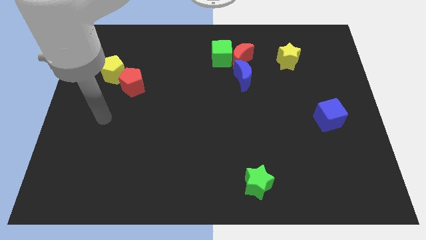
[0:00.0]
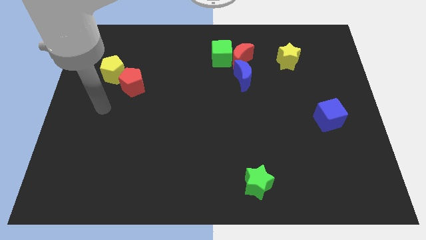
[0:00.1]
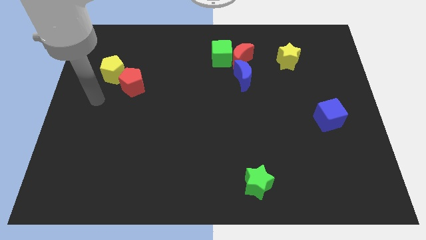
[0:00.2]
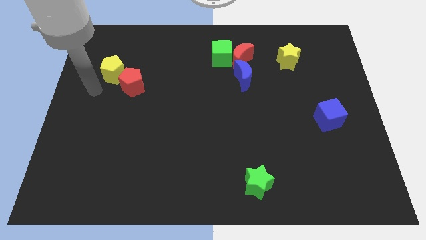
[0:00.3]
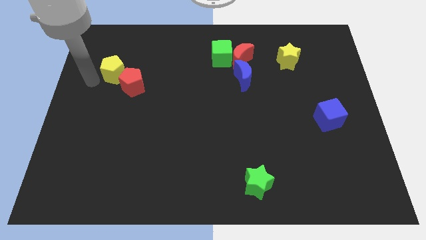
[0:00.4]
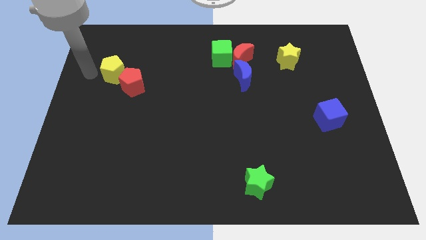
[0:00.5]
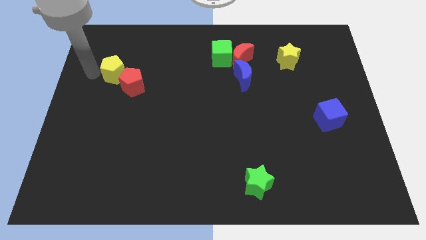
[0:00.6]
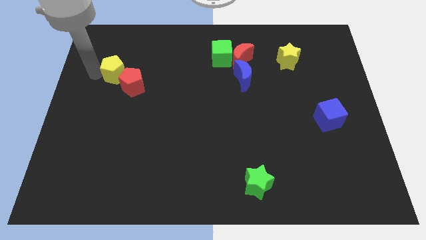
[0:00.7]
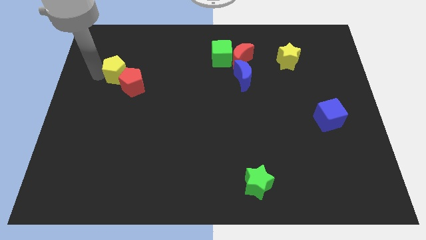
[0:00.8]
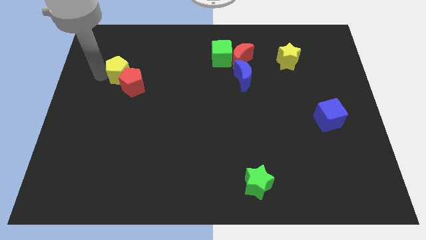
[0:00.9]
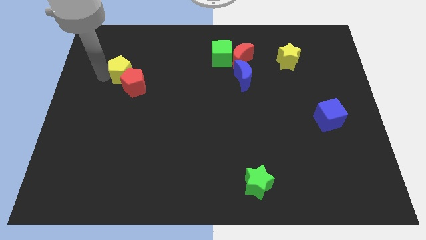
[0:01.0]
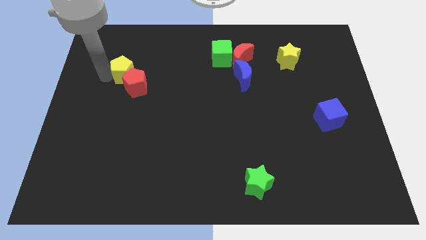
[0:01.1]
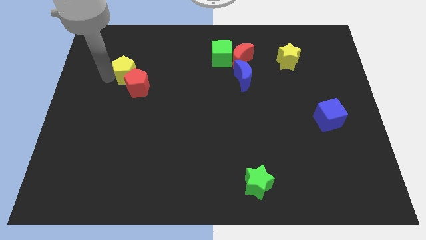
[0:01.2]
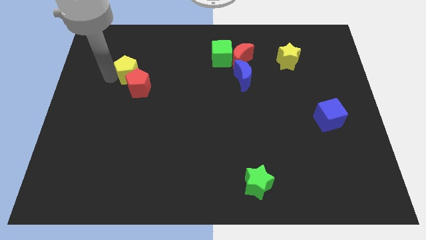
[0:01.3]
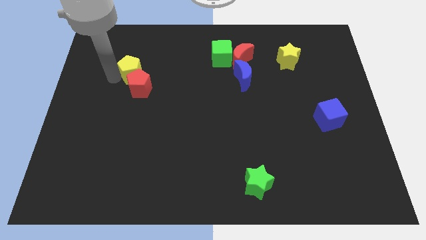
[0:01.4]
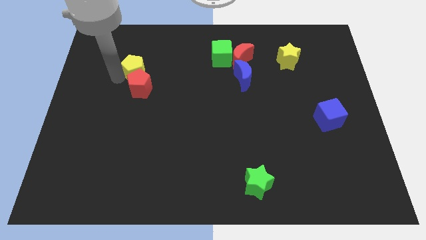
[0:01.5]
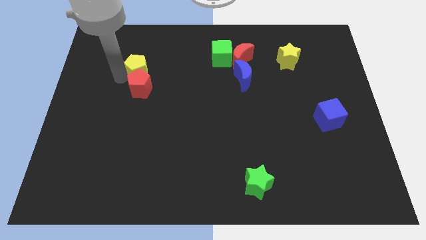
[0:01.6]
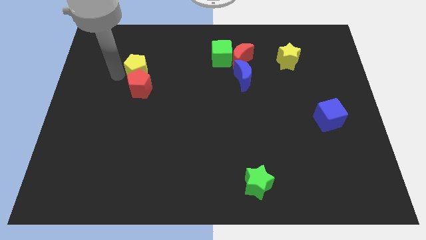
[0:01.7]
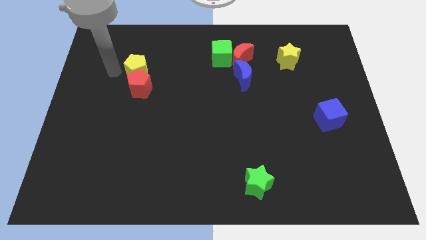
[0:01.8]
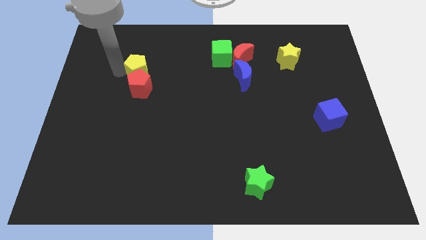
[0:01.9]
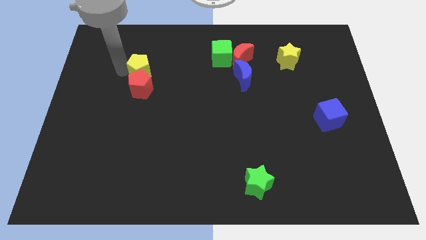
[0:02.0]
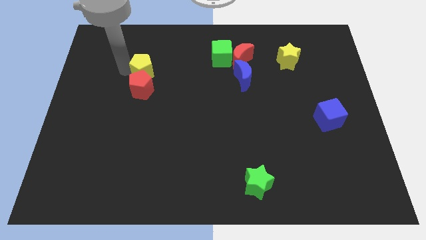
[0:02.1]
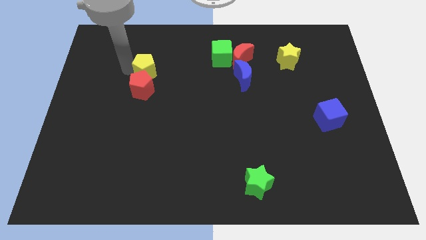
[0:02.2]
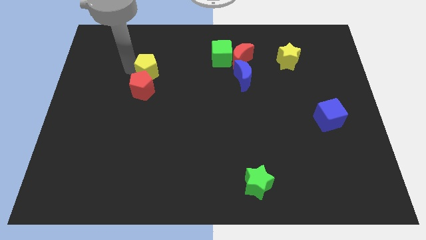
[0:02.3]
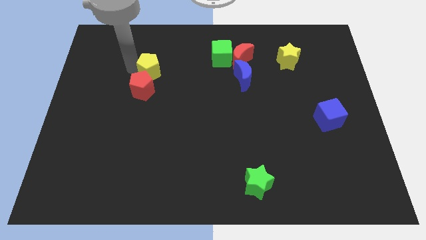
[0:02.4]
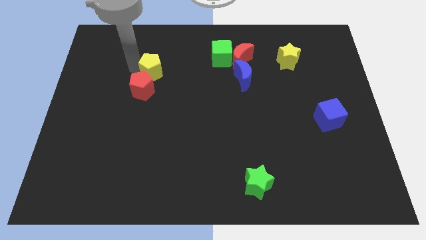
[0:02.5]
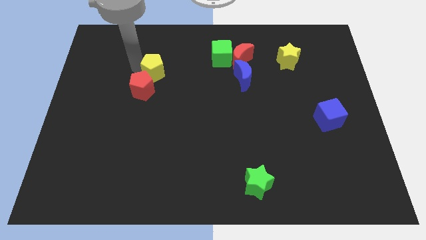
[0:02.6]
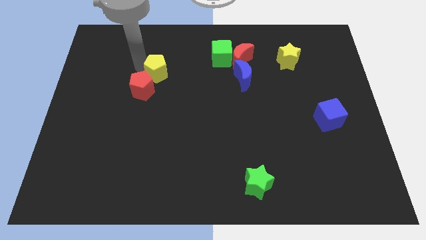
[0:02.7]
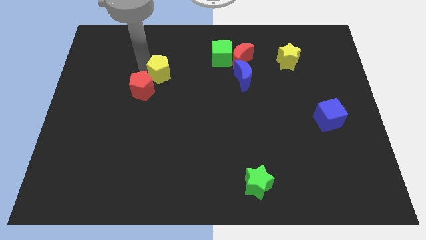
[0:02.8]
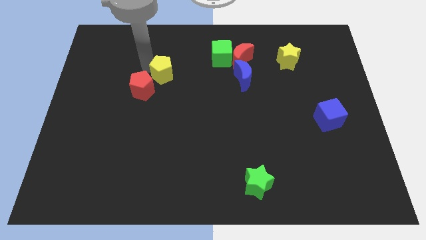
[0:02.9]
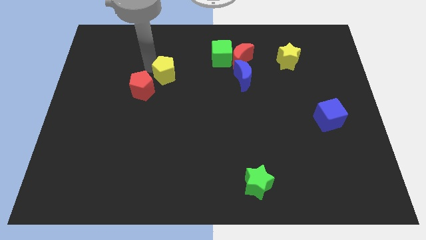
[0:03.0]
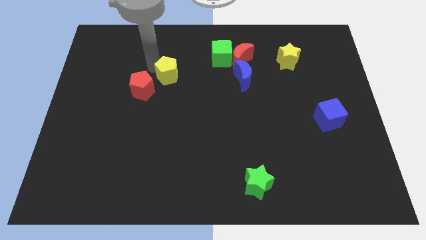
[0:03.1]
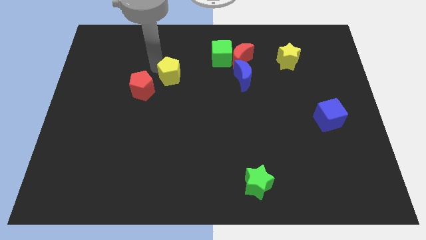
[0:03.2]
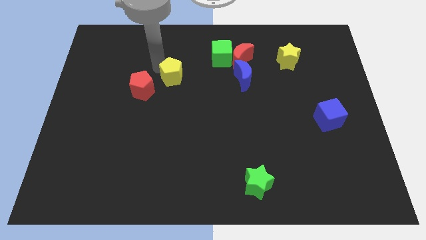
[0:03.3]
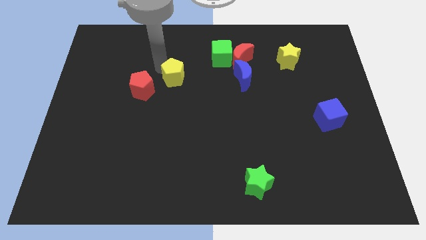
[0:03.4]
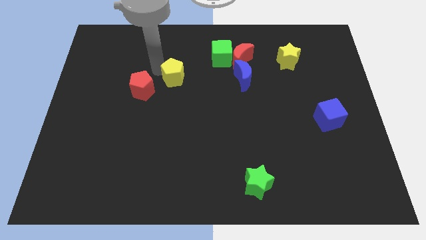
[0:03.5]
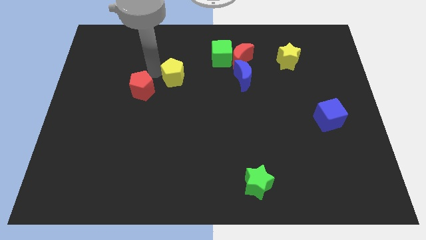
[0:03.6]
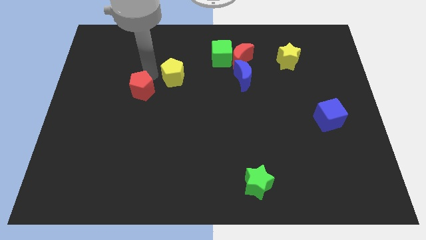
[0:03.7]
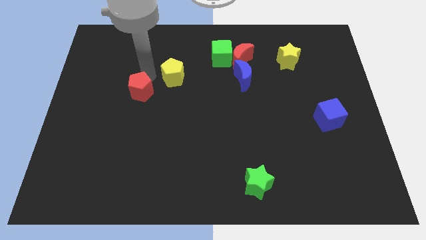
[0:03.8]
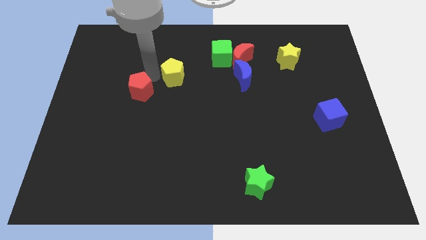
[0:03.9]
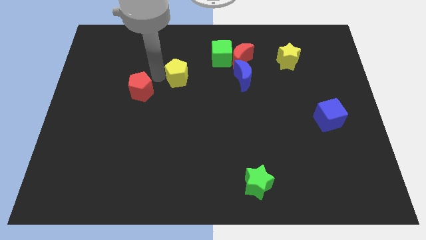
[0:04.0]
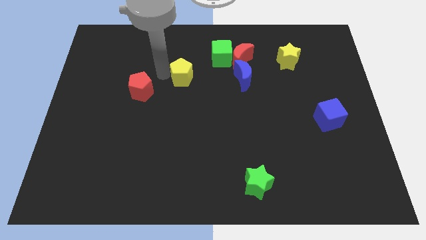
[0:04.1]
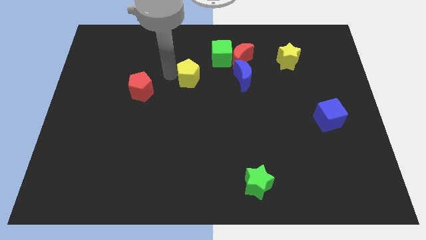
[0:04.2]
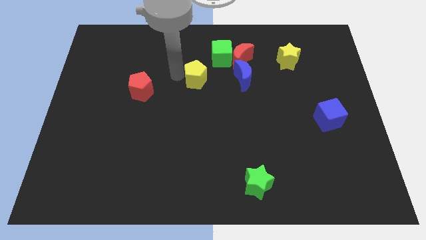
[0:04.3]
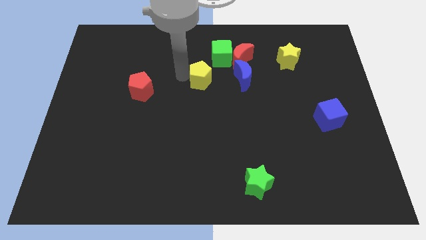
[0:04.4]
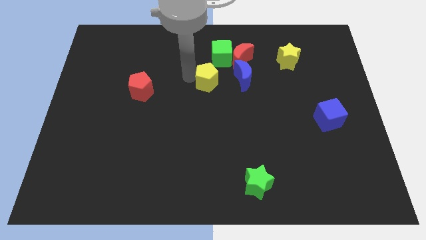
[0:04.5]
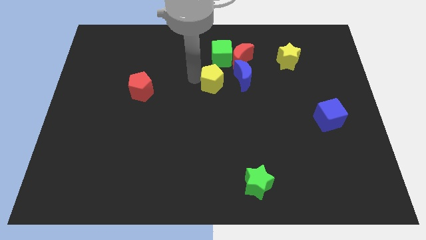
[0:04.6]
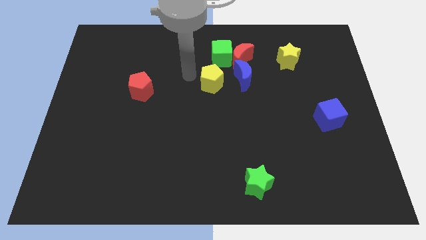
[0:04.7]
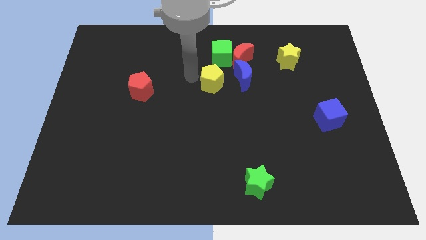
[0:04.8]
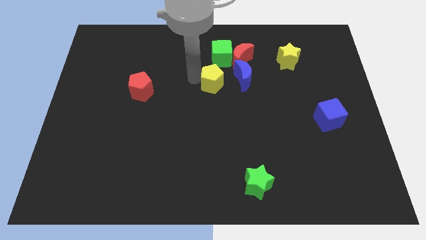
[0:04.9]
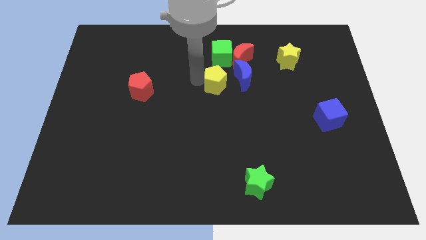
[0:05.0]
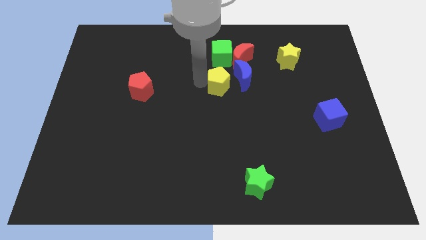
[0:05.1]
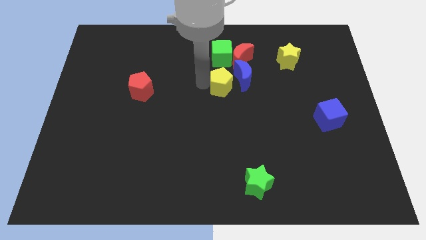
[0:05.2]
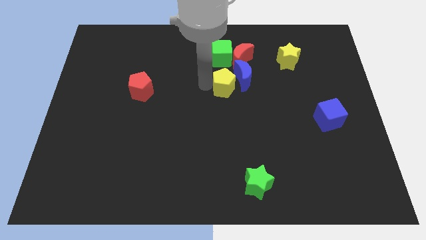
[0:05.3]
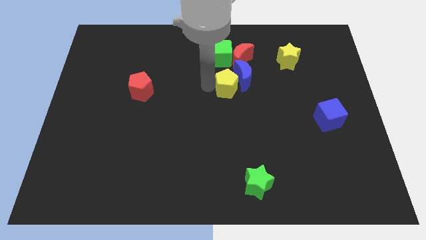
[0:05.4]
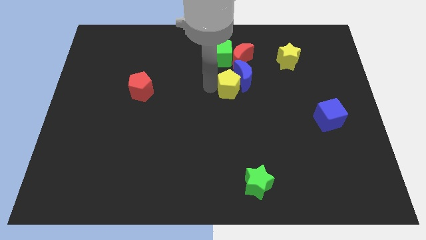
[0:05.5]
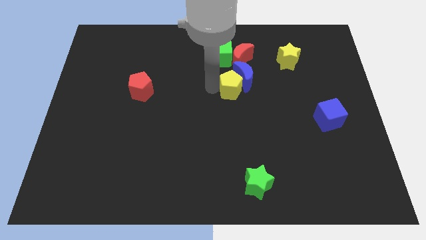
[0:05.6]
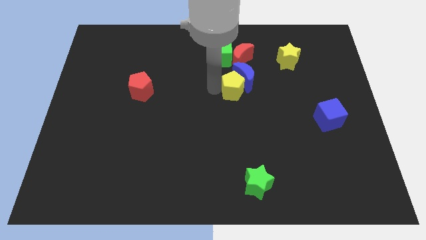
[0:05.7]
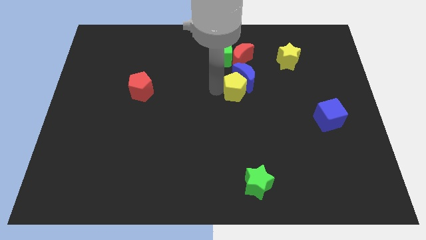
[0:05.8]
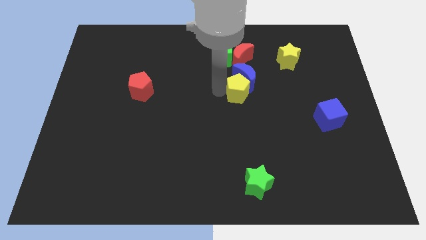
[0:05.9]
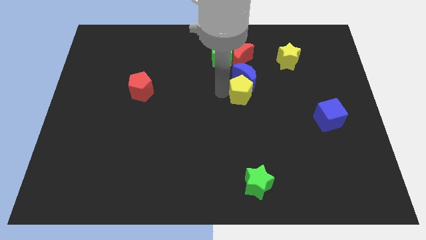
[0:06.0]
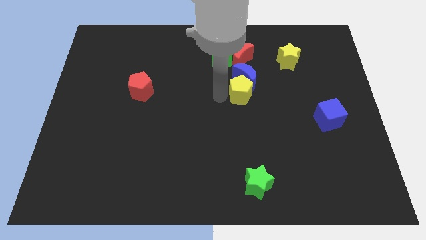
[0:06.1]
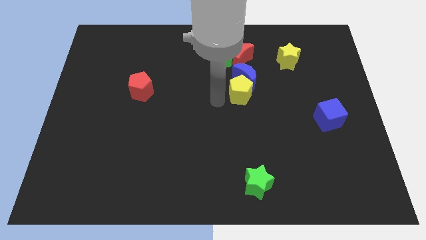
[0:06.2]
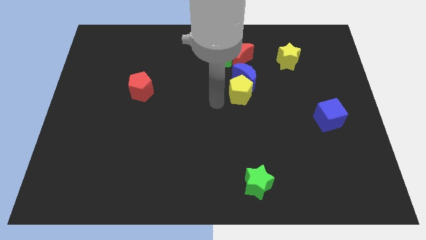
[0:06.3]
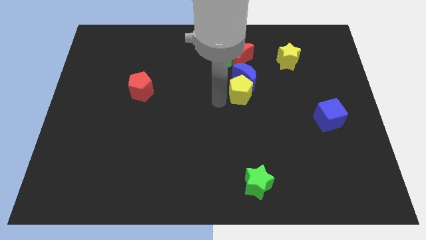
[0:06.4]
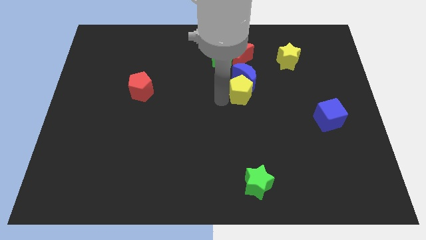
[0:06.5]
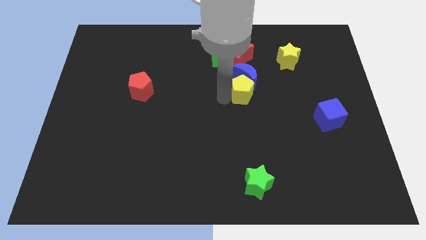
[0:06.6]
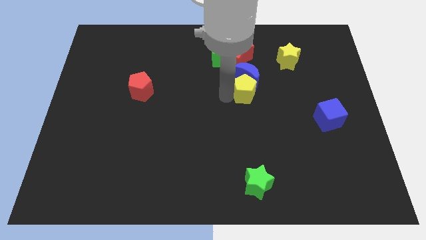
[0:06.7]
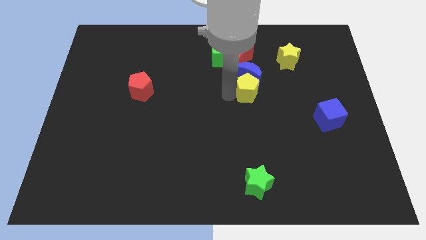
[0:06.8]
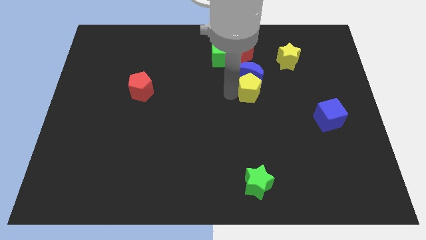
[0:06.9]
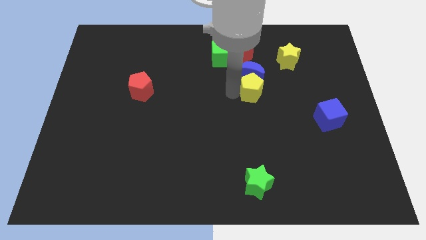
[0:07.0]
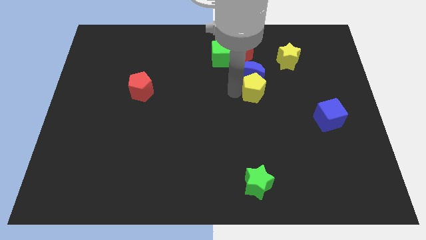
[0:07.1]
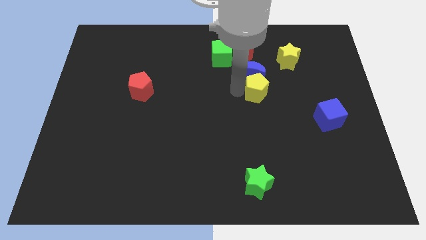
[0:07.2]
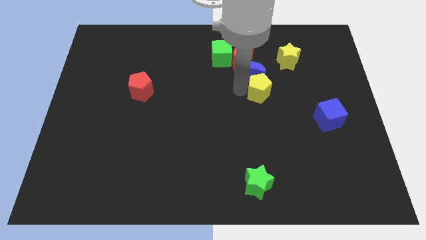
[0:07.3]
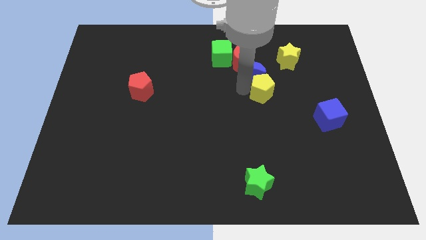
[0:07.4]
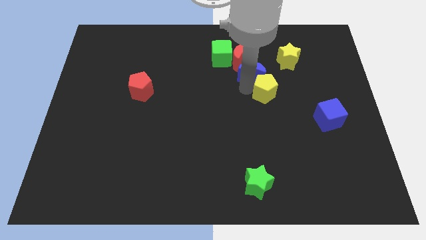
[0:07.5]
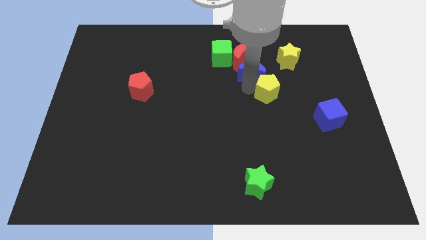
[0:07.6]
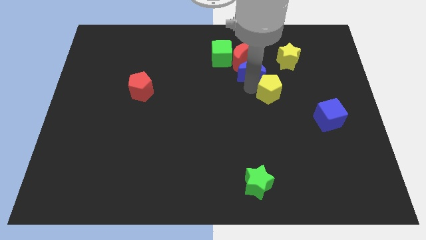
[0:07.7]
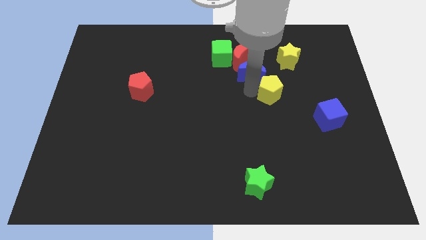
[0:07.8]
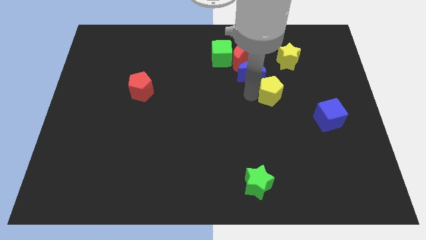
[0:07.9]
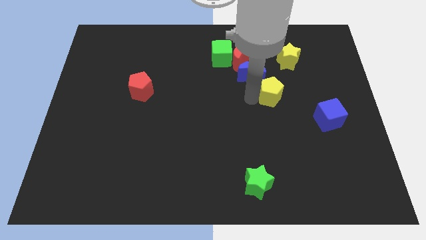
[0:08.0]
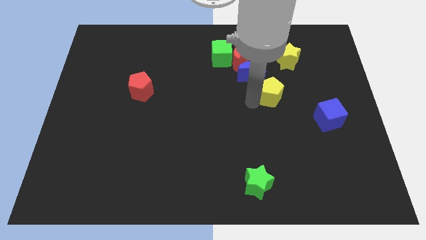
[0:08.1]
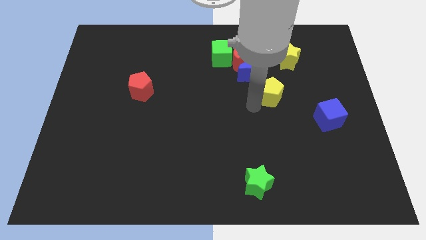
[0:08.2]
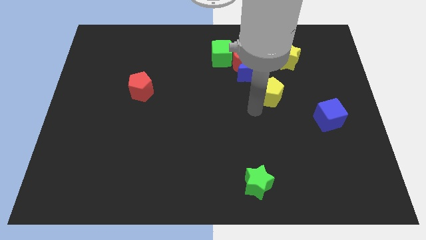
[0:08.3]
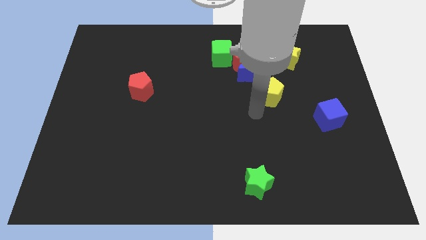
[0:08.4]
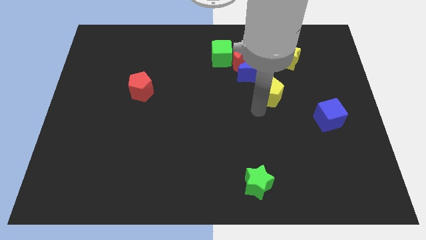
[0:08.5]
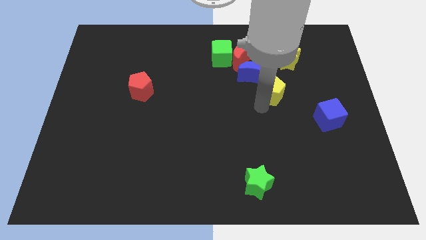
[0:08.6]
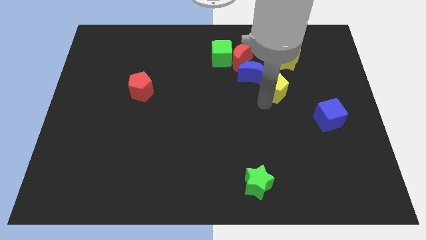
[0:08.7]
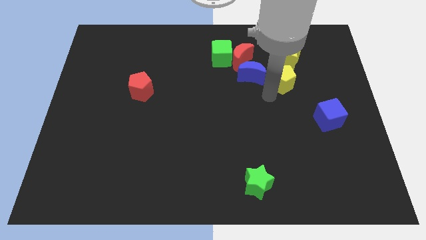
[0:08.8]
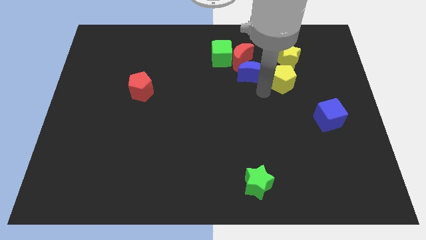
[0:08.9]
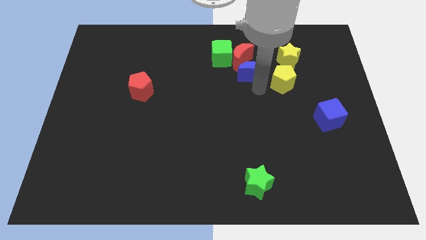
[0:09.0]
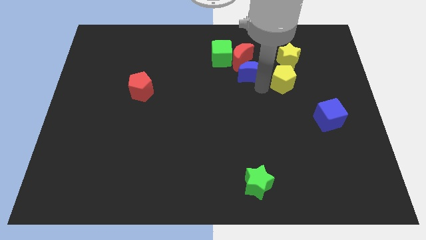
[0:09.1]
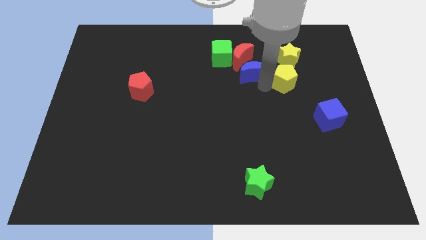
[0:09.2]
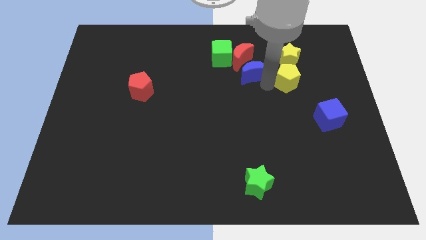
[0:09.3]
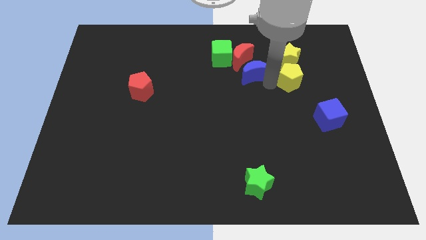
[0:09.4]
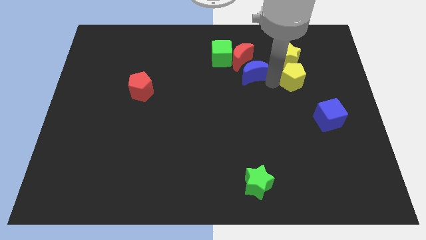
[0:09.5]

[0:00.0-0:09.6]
move the yellow pentagon diagonally down and to the right of the yellow star
